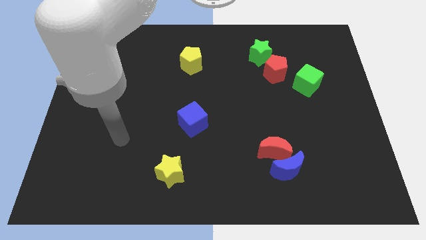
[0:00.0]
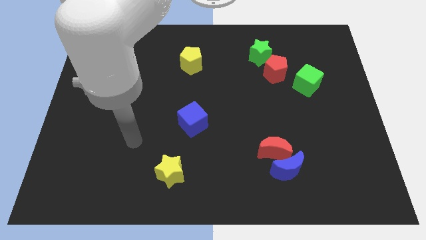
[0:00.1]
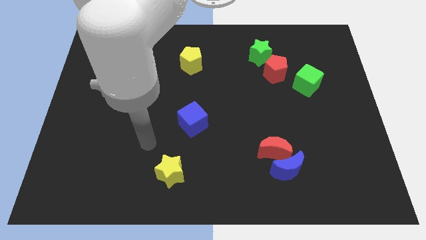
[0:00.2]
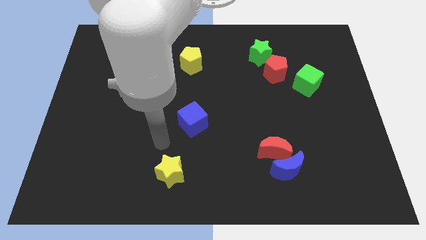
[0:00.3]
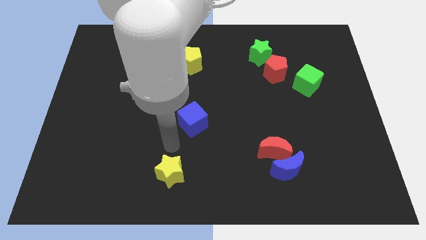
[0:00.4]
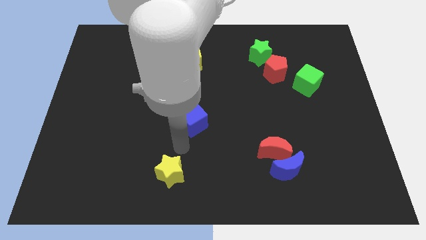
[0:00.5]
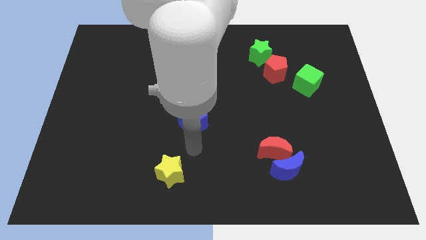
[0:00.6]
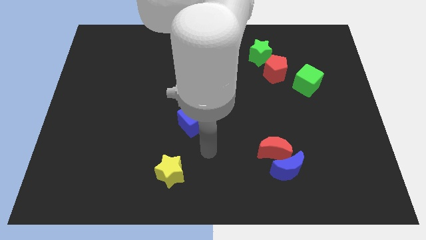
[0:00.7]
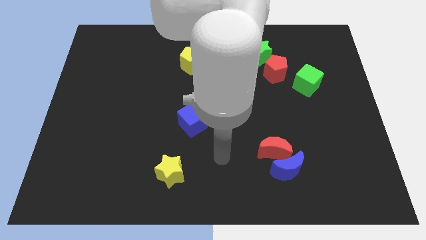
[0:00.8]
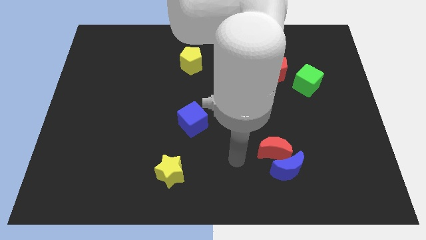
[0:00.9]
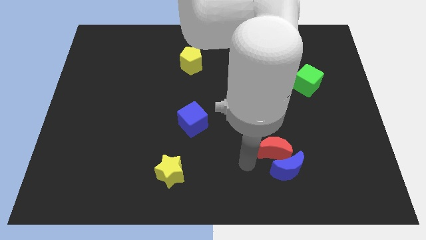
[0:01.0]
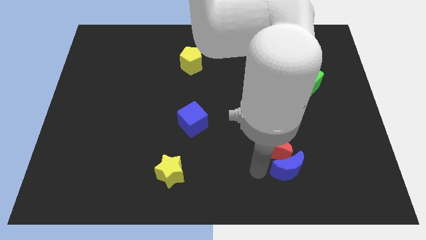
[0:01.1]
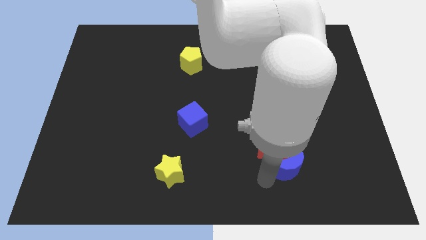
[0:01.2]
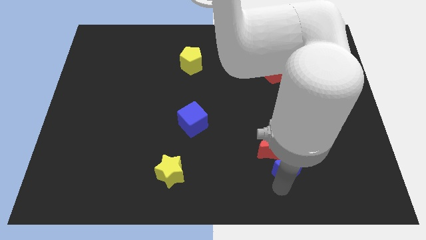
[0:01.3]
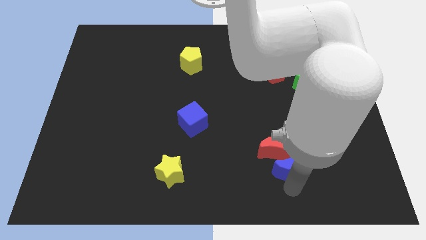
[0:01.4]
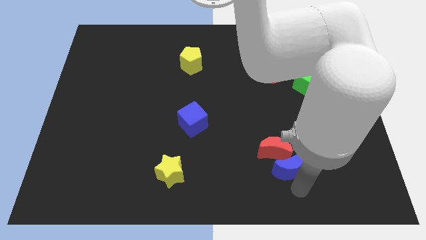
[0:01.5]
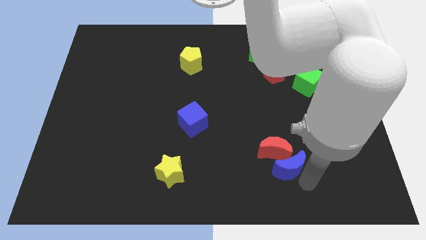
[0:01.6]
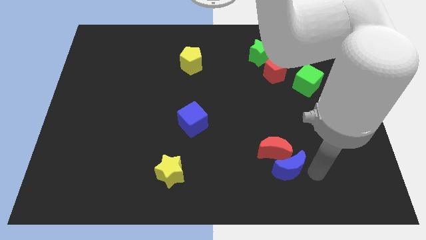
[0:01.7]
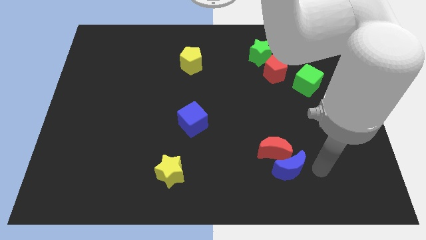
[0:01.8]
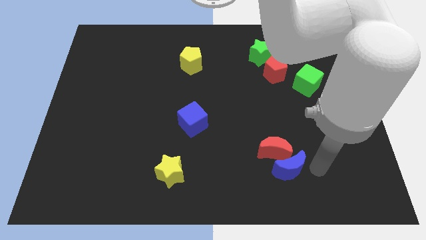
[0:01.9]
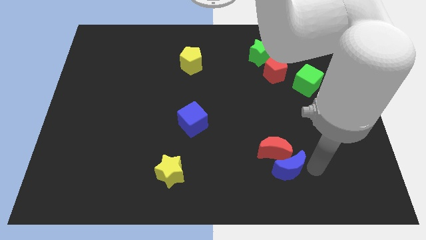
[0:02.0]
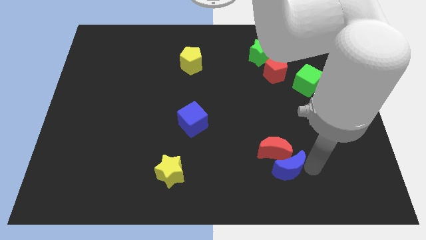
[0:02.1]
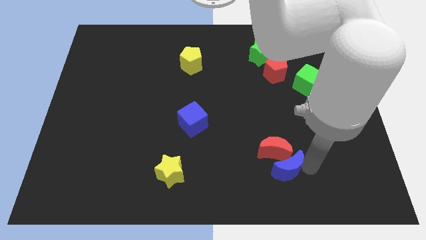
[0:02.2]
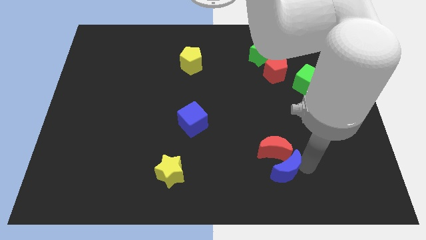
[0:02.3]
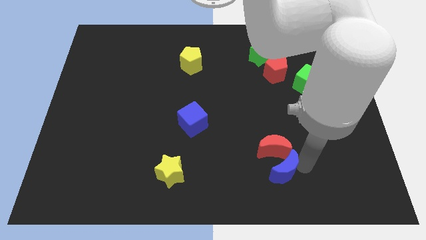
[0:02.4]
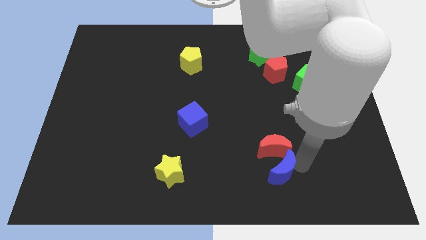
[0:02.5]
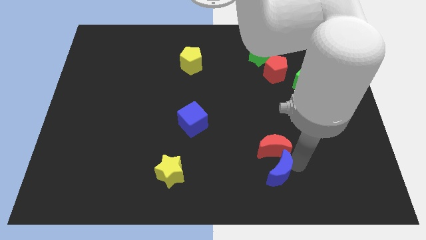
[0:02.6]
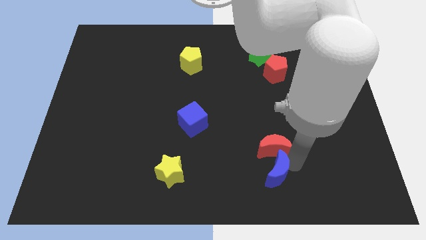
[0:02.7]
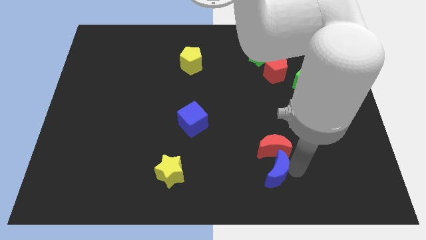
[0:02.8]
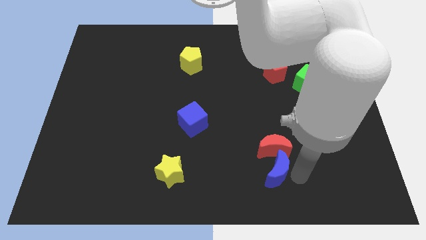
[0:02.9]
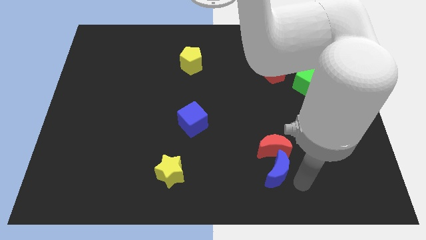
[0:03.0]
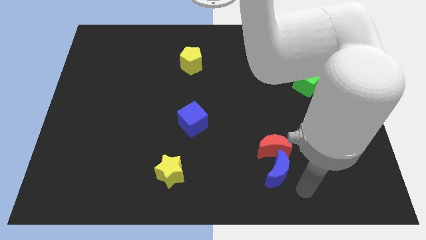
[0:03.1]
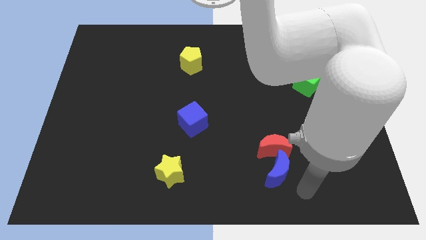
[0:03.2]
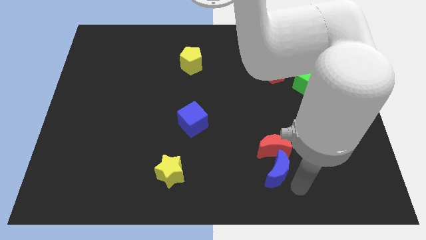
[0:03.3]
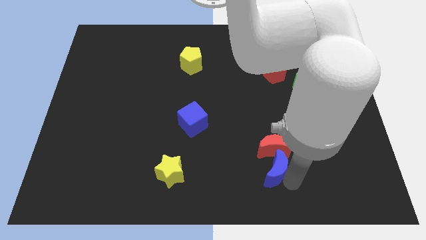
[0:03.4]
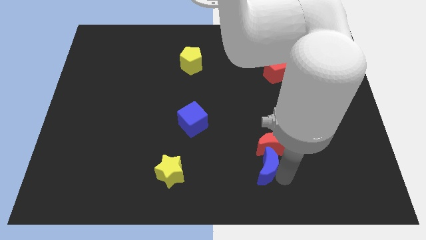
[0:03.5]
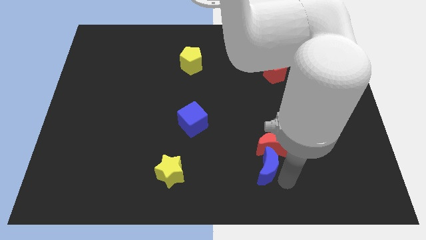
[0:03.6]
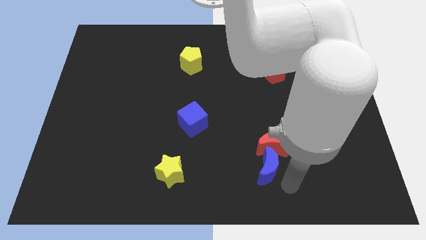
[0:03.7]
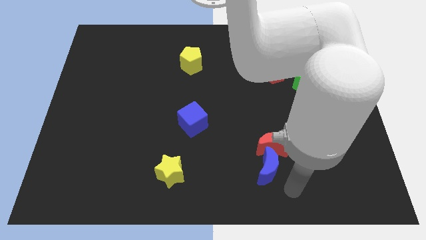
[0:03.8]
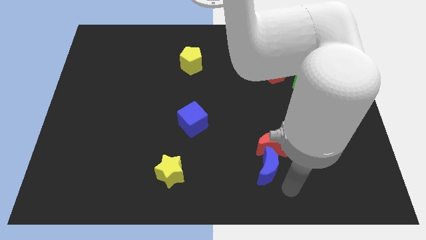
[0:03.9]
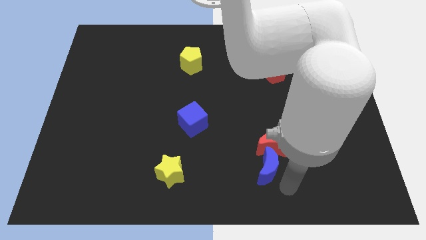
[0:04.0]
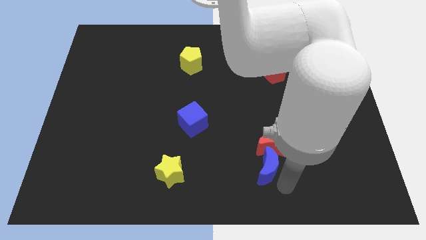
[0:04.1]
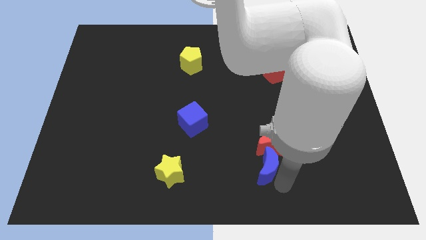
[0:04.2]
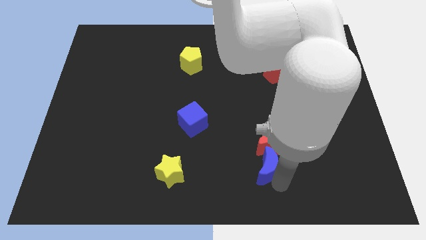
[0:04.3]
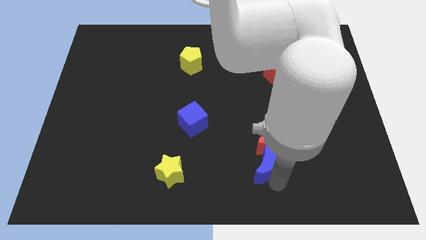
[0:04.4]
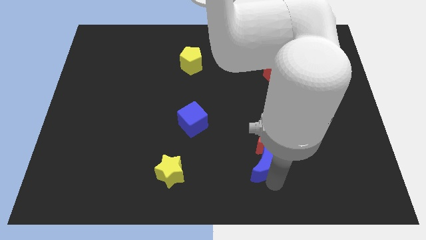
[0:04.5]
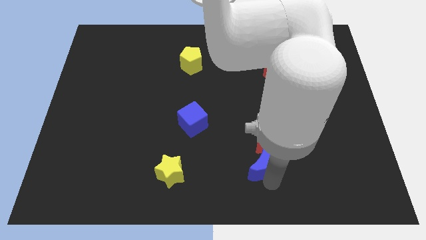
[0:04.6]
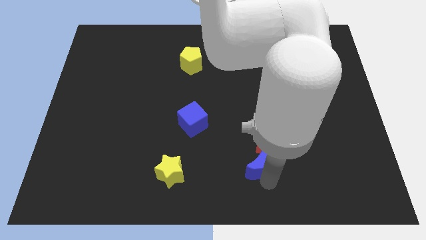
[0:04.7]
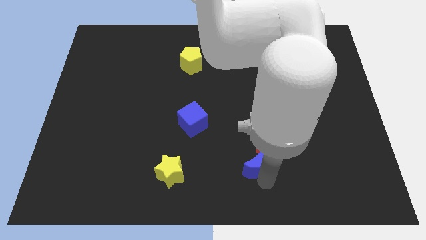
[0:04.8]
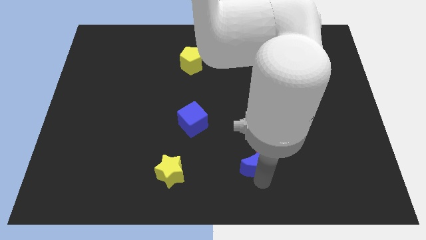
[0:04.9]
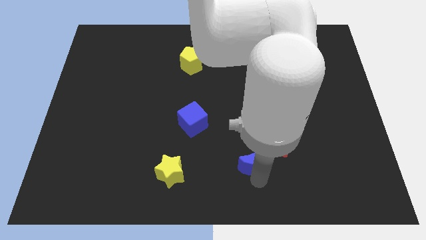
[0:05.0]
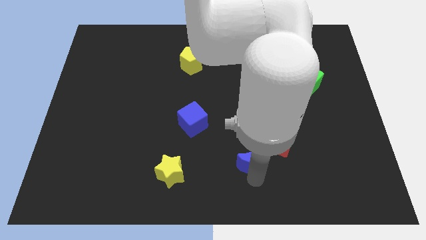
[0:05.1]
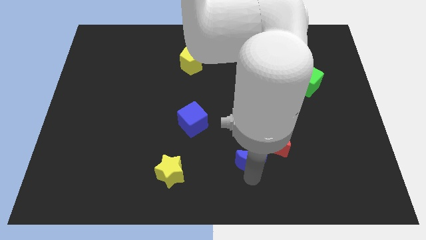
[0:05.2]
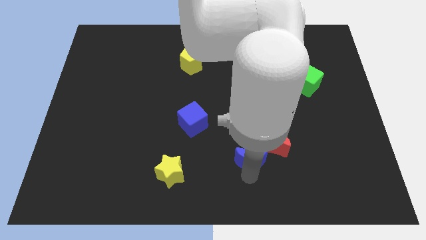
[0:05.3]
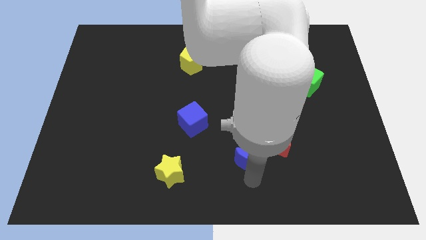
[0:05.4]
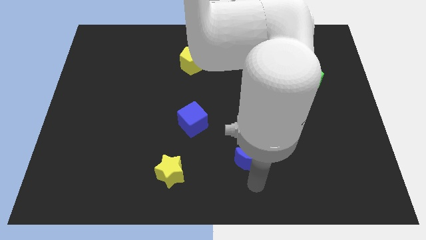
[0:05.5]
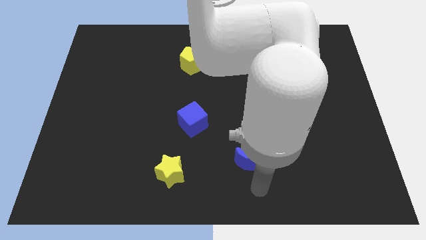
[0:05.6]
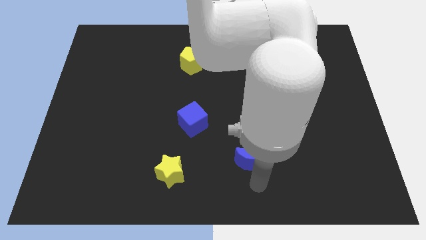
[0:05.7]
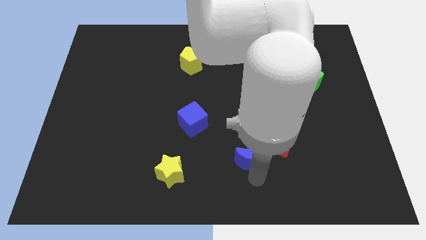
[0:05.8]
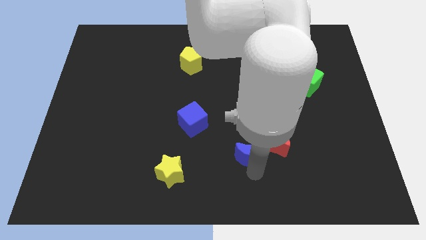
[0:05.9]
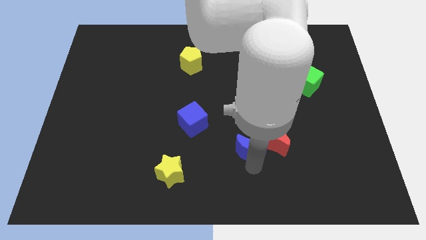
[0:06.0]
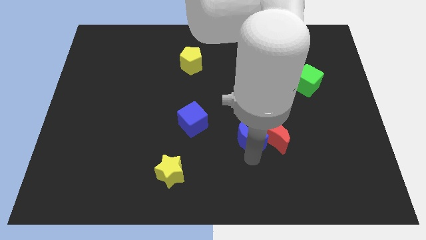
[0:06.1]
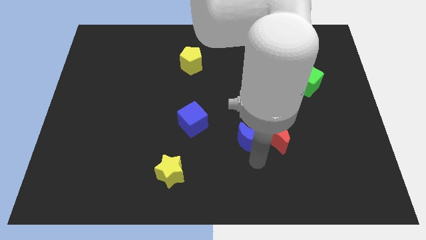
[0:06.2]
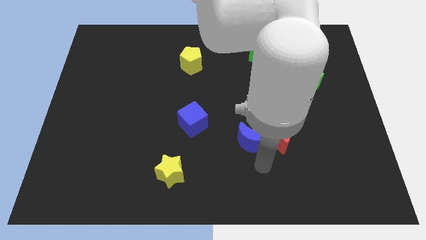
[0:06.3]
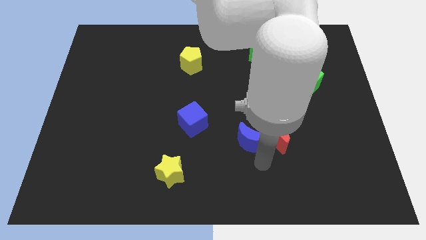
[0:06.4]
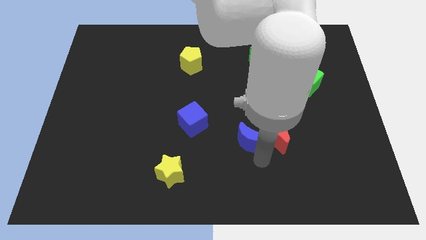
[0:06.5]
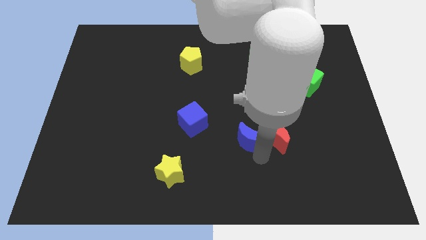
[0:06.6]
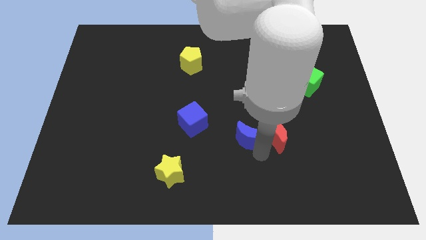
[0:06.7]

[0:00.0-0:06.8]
move the blue moon just right of the blue cube

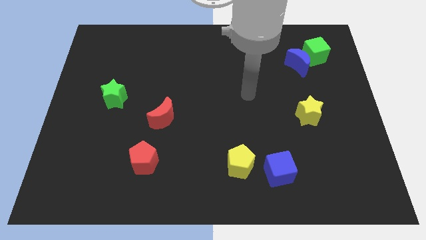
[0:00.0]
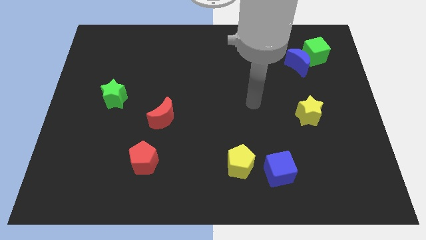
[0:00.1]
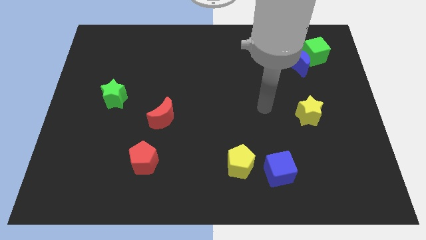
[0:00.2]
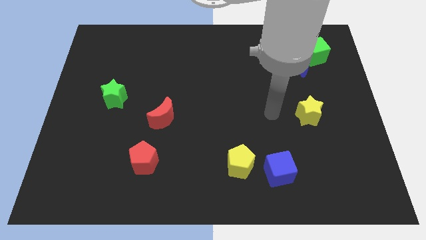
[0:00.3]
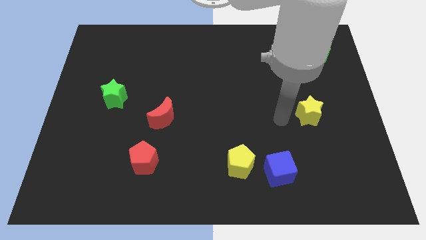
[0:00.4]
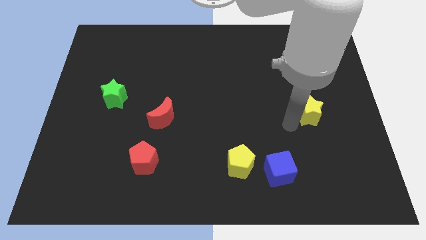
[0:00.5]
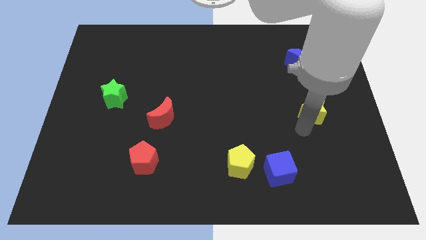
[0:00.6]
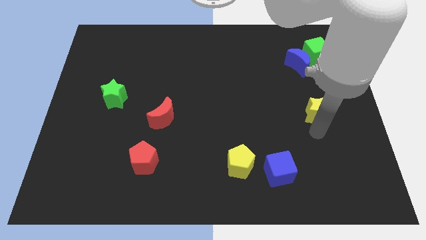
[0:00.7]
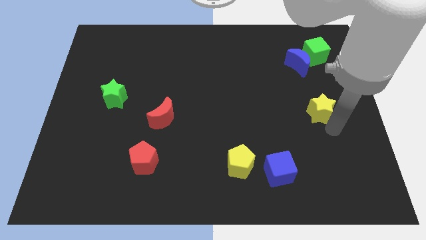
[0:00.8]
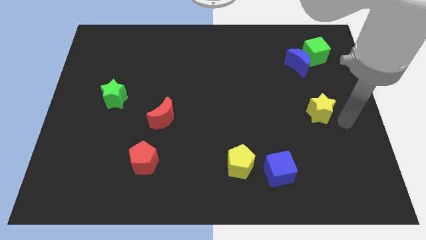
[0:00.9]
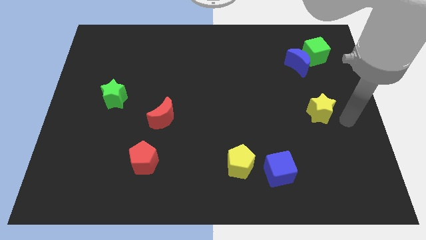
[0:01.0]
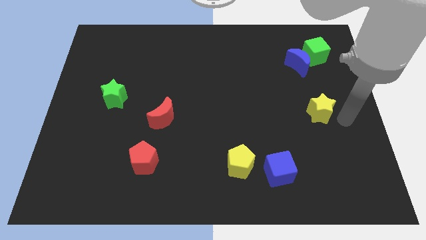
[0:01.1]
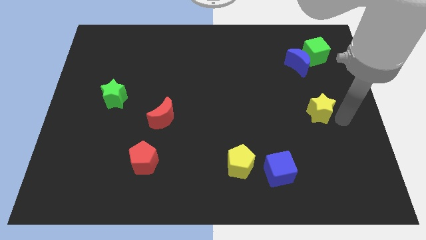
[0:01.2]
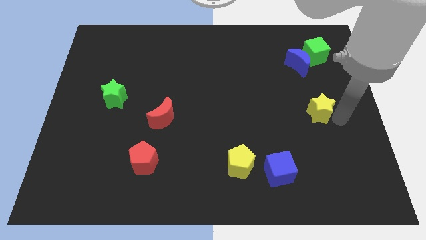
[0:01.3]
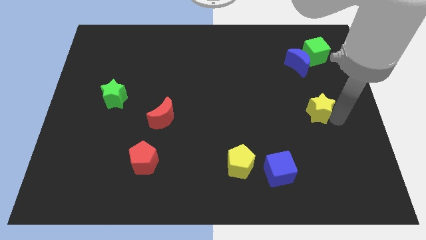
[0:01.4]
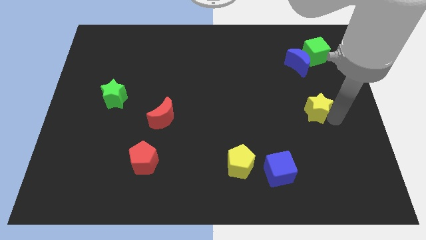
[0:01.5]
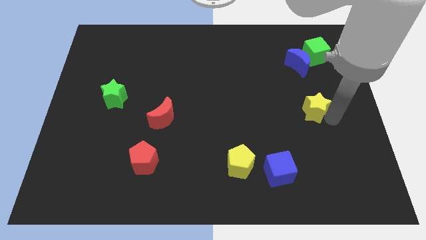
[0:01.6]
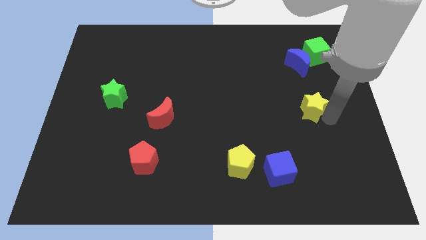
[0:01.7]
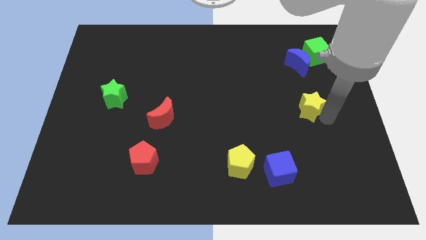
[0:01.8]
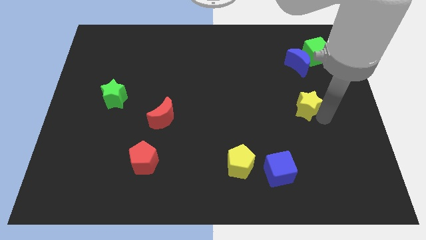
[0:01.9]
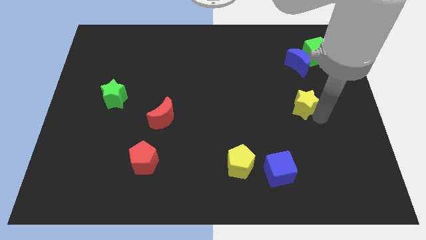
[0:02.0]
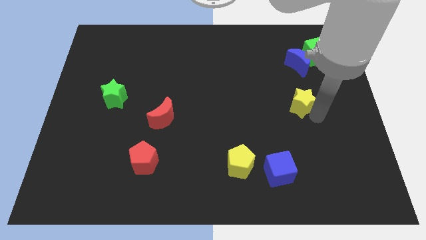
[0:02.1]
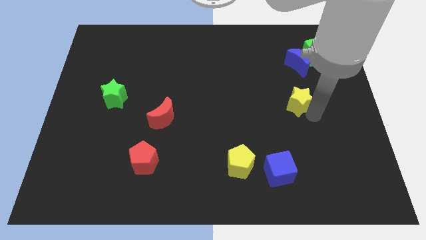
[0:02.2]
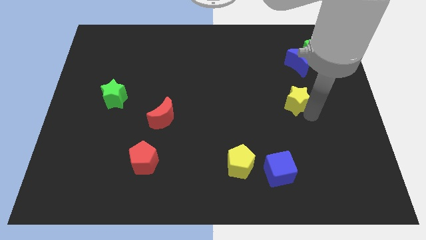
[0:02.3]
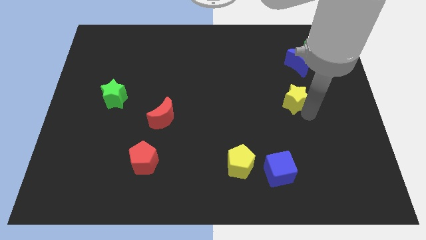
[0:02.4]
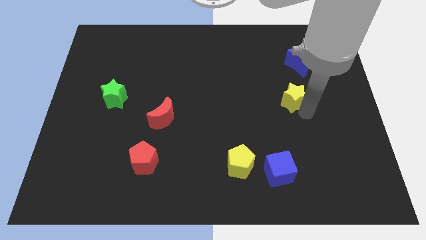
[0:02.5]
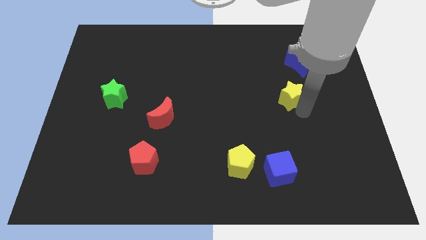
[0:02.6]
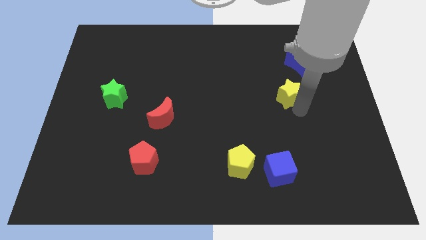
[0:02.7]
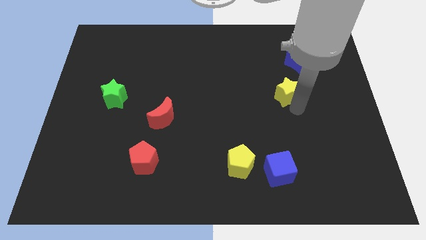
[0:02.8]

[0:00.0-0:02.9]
move the yellow star diagonally down and to the left of the blue moon
